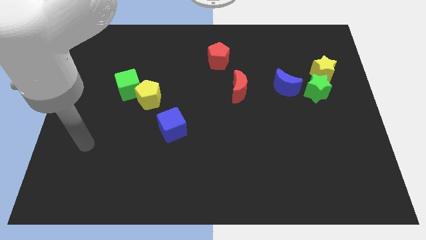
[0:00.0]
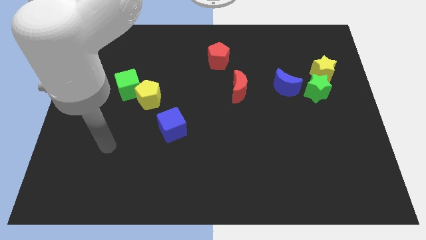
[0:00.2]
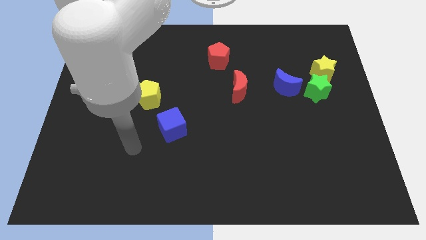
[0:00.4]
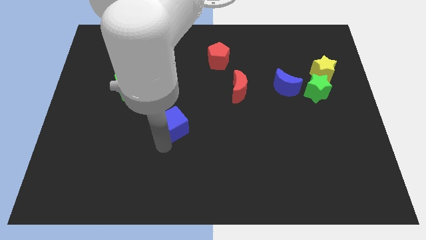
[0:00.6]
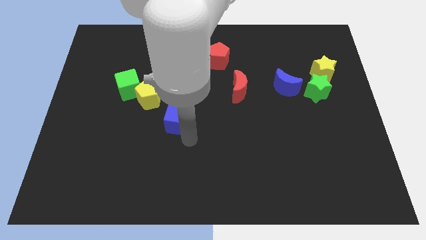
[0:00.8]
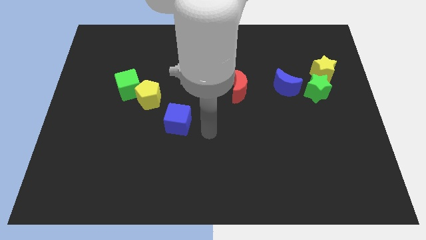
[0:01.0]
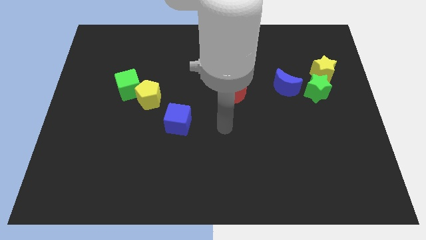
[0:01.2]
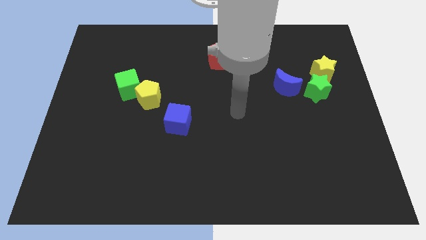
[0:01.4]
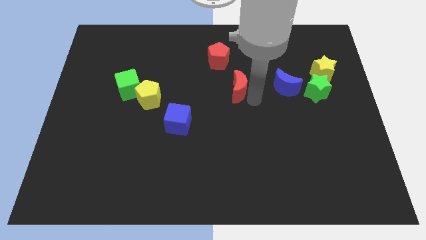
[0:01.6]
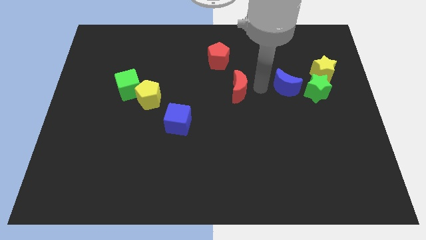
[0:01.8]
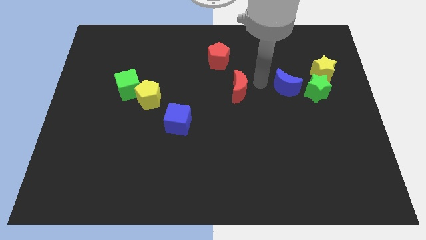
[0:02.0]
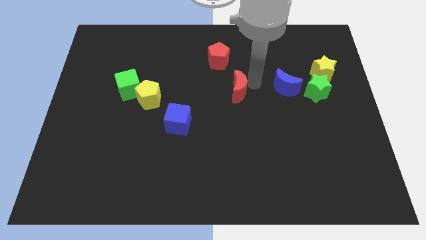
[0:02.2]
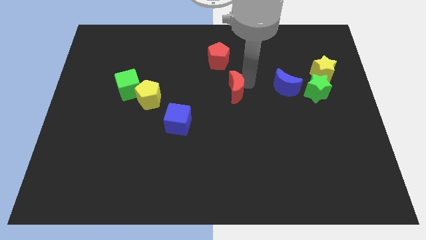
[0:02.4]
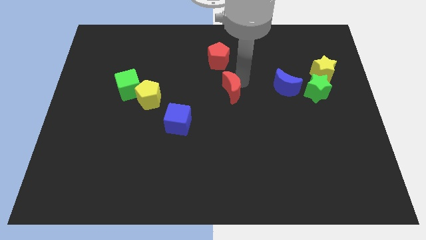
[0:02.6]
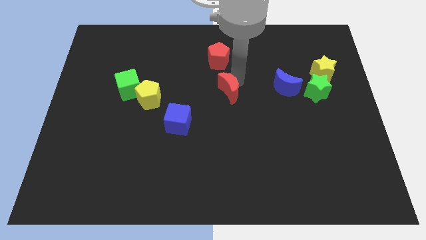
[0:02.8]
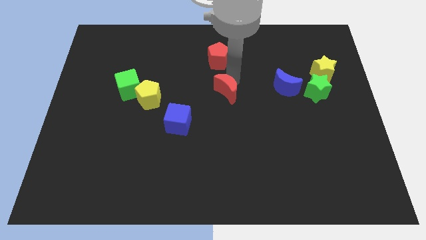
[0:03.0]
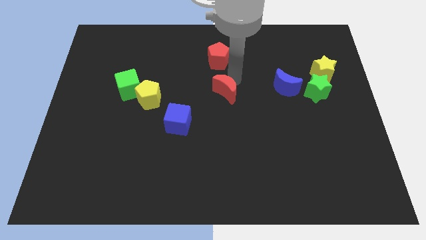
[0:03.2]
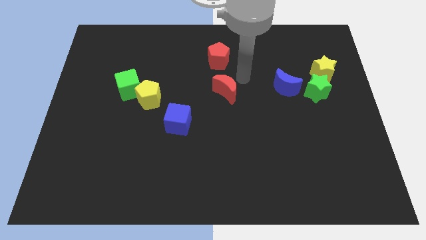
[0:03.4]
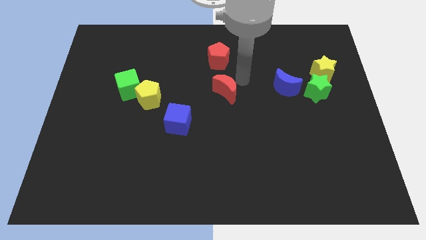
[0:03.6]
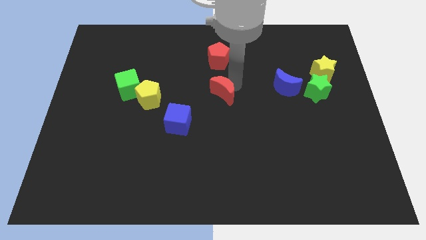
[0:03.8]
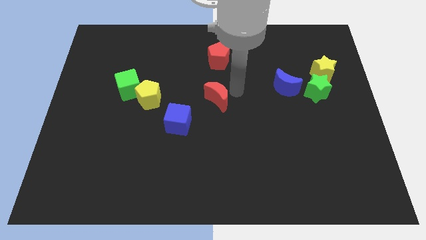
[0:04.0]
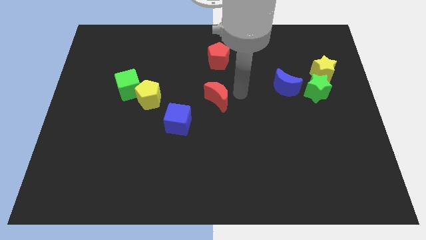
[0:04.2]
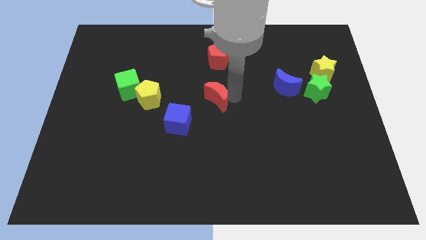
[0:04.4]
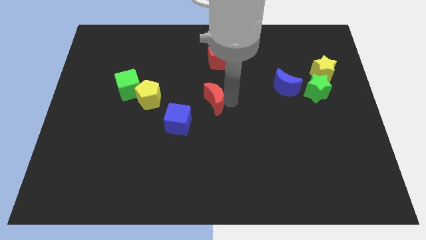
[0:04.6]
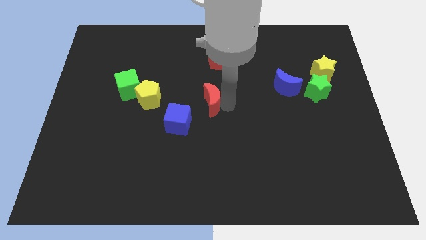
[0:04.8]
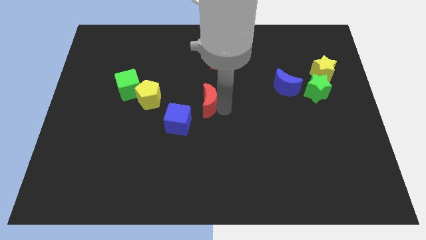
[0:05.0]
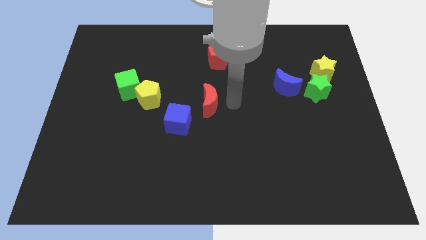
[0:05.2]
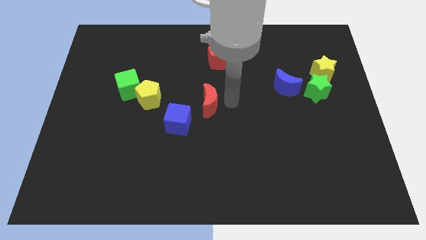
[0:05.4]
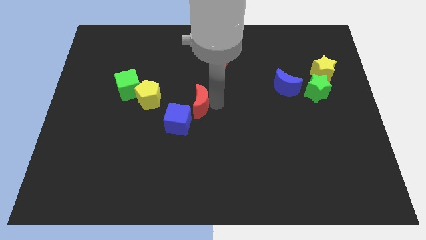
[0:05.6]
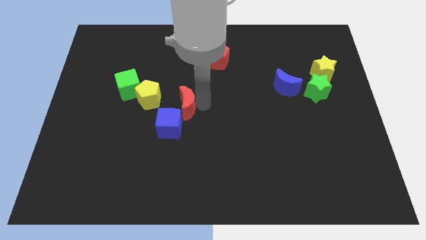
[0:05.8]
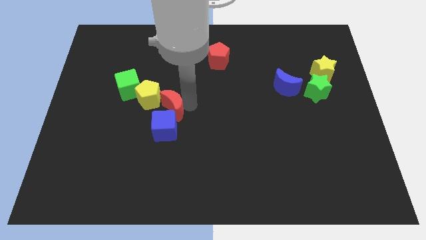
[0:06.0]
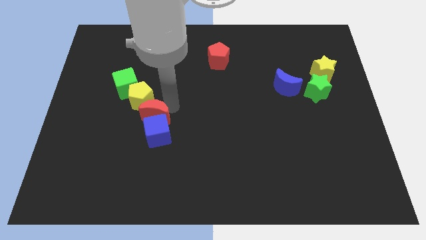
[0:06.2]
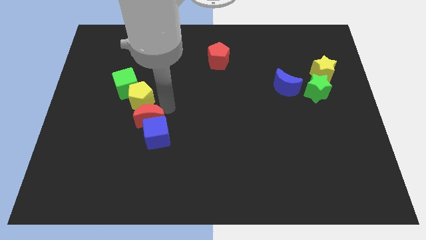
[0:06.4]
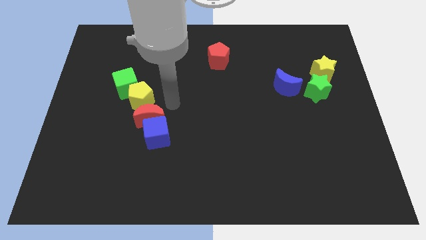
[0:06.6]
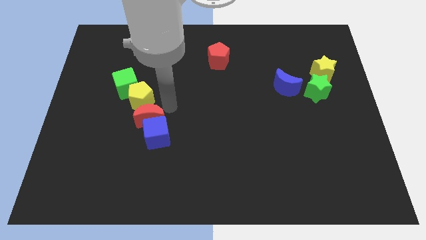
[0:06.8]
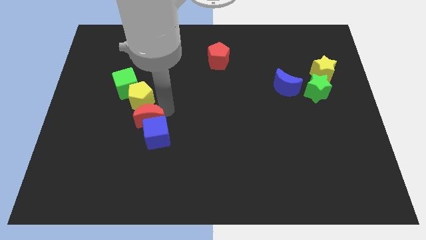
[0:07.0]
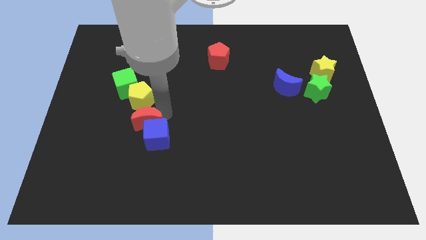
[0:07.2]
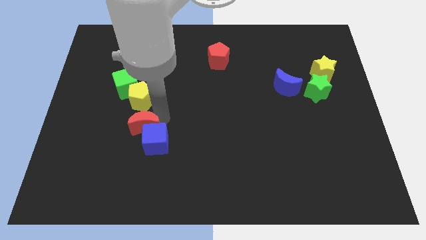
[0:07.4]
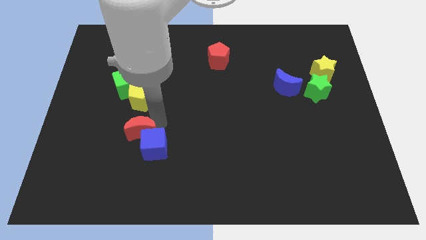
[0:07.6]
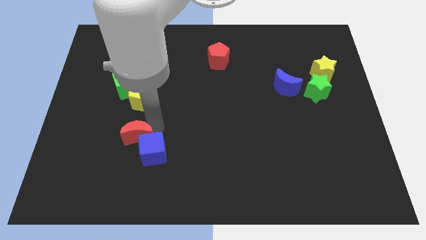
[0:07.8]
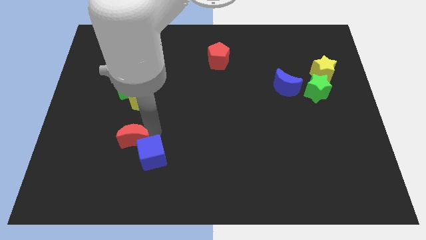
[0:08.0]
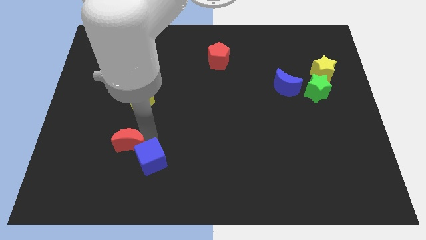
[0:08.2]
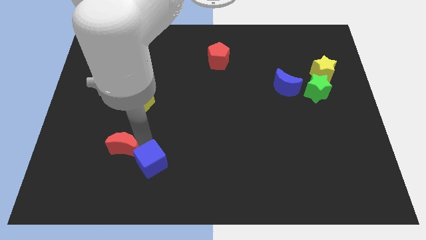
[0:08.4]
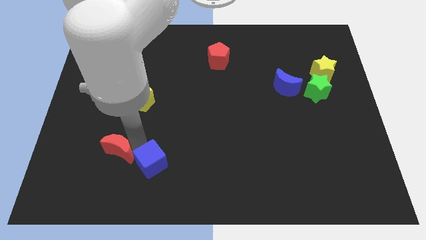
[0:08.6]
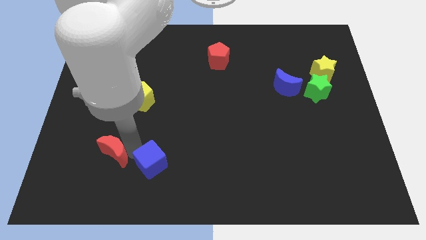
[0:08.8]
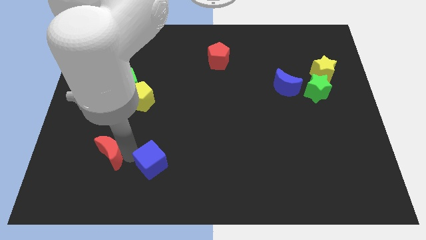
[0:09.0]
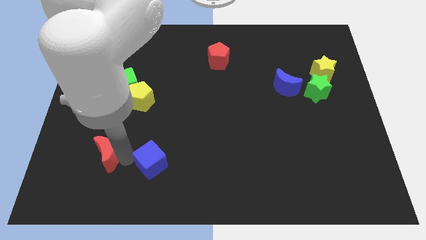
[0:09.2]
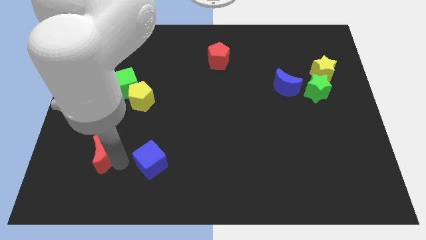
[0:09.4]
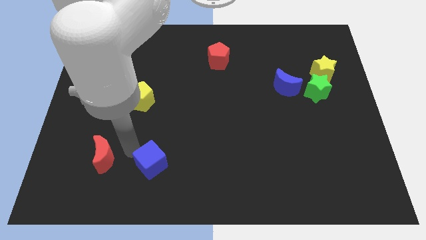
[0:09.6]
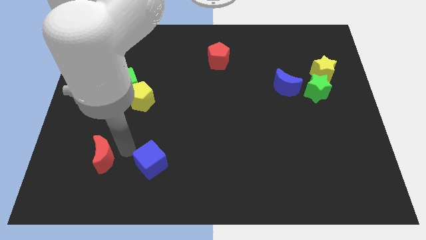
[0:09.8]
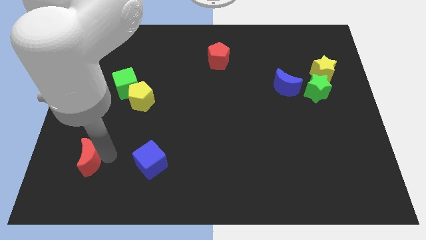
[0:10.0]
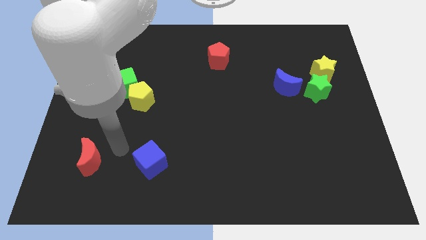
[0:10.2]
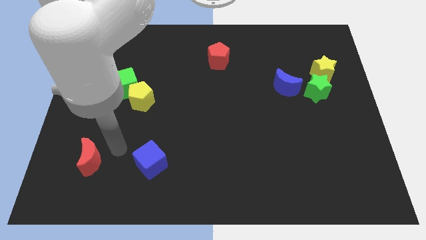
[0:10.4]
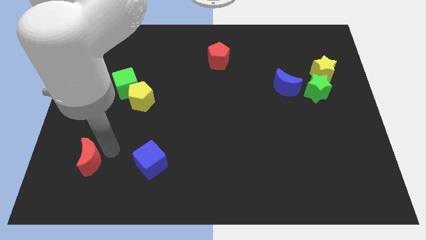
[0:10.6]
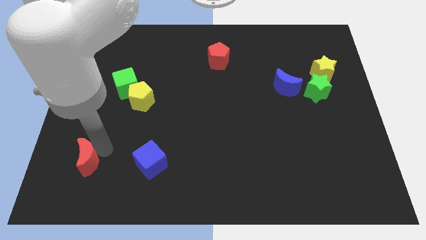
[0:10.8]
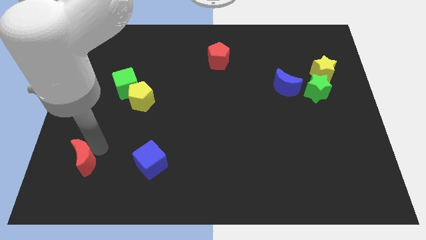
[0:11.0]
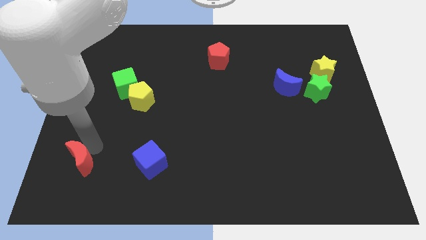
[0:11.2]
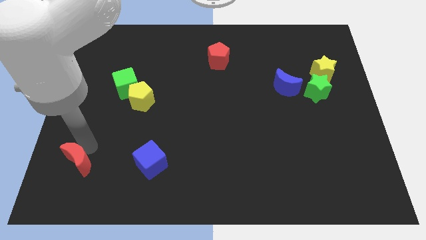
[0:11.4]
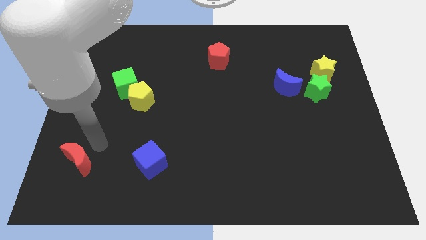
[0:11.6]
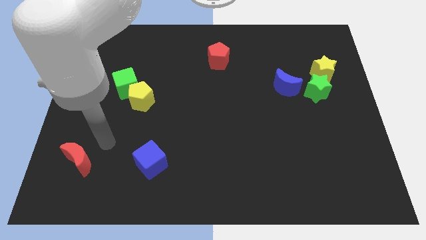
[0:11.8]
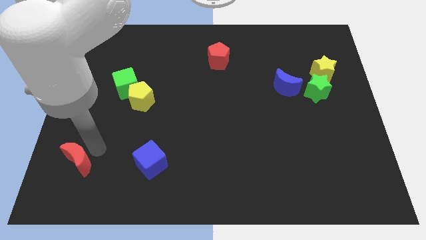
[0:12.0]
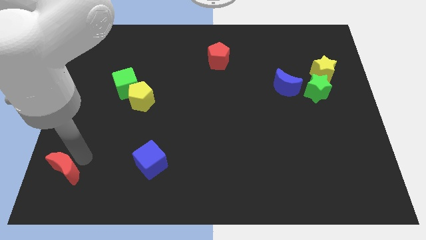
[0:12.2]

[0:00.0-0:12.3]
move the red moon to the lower left corner

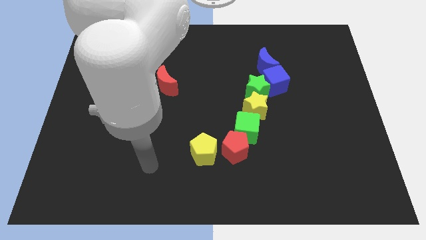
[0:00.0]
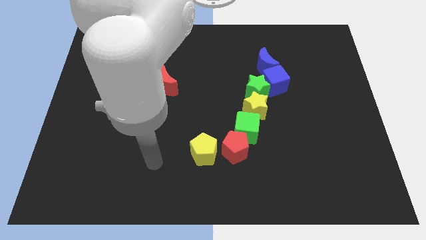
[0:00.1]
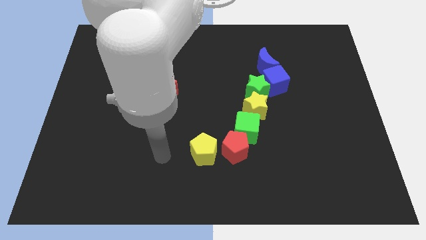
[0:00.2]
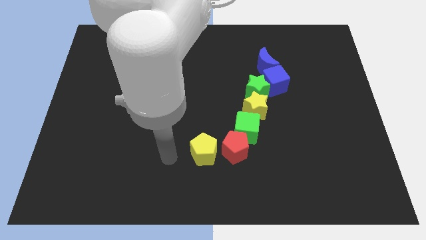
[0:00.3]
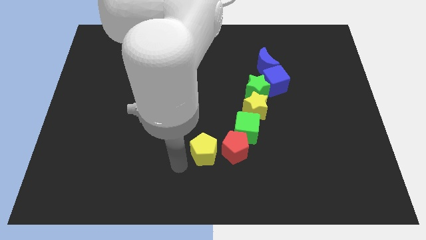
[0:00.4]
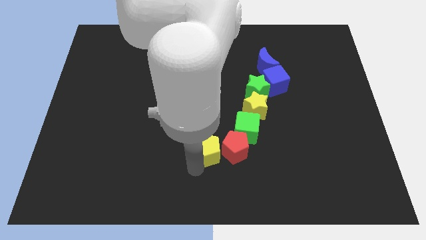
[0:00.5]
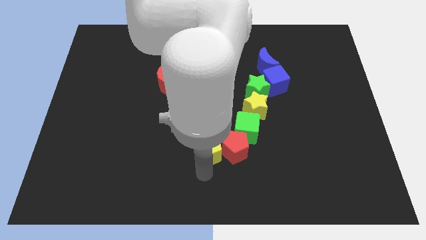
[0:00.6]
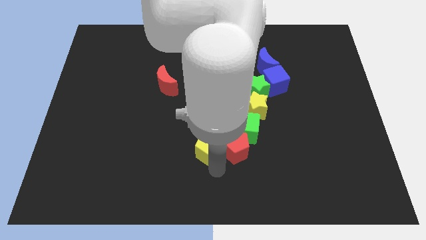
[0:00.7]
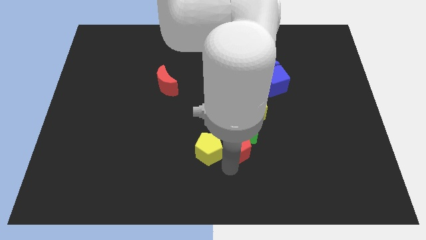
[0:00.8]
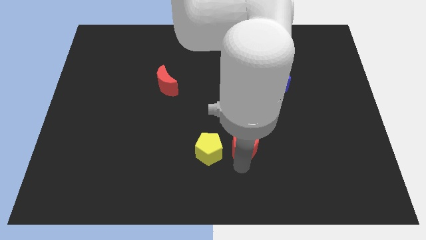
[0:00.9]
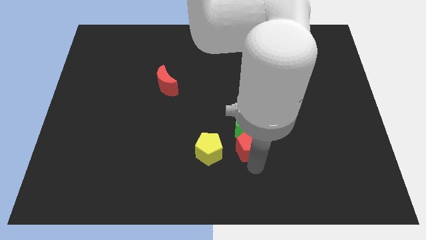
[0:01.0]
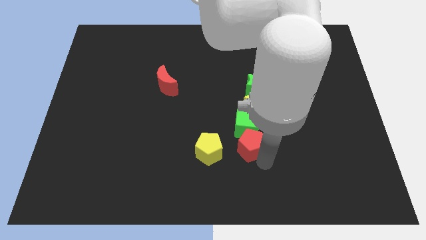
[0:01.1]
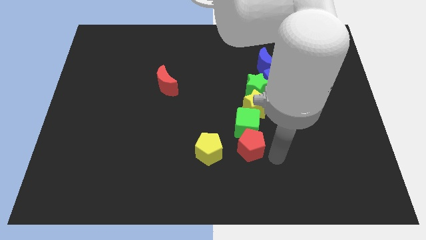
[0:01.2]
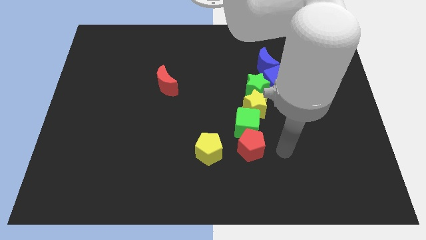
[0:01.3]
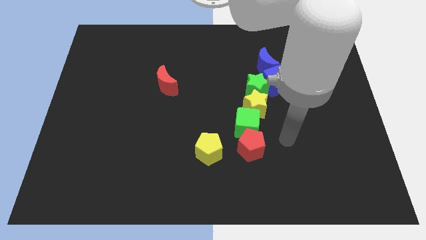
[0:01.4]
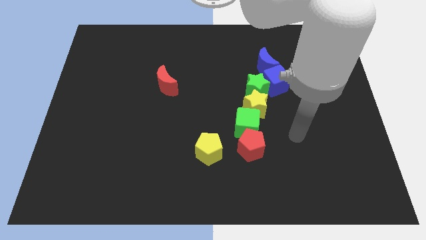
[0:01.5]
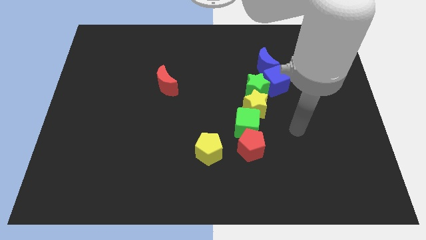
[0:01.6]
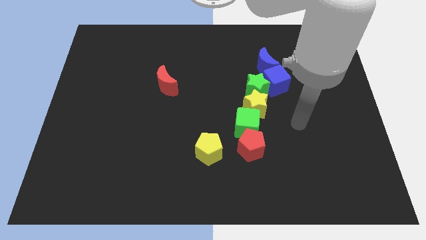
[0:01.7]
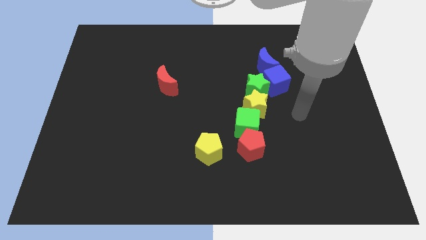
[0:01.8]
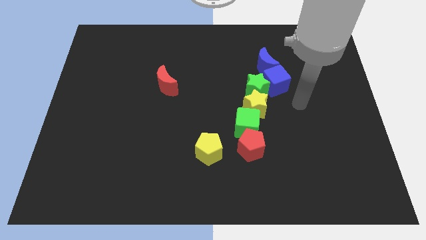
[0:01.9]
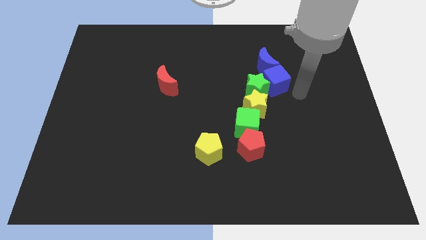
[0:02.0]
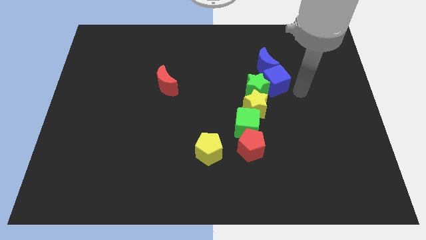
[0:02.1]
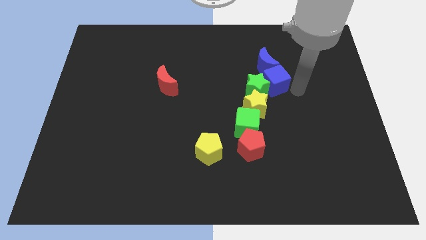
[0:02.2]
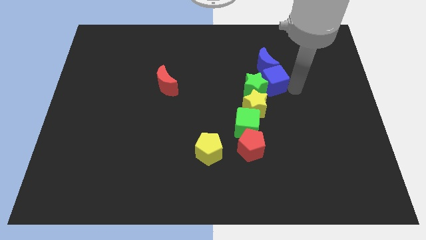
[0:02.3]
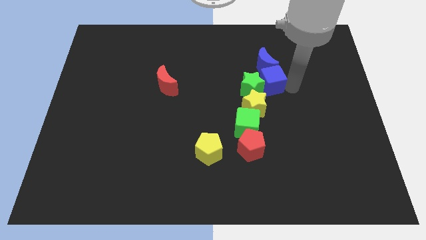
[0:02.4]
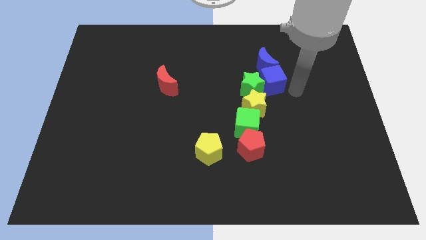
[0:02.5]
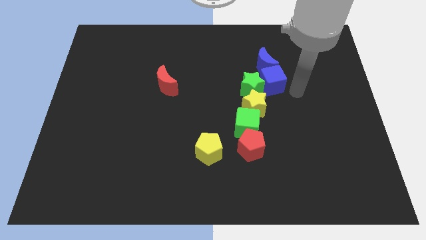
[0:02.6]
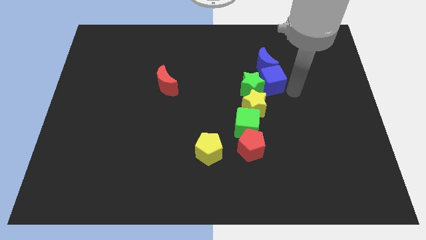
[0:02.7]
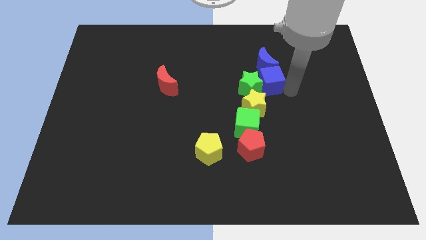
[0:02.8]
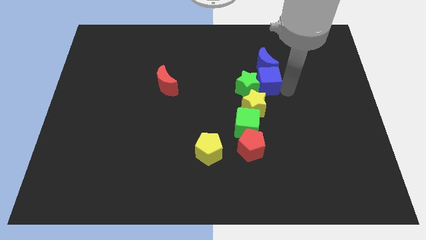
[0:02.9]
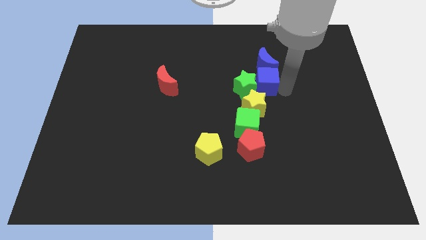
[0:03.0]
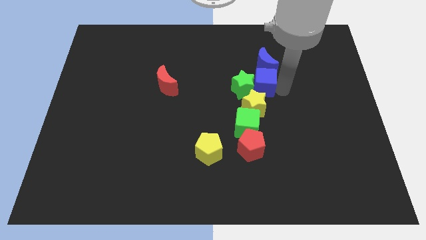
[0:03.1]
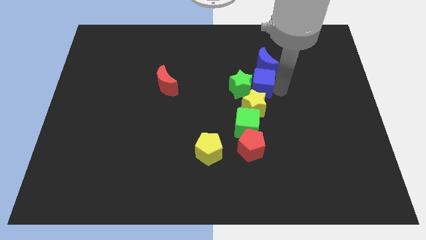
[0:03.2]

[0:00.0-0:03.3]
put the blue cube to the middle
